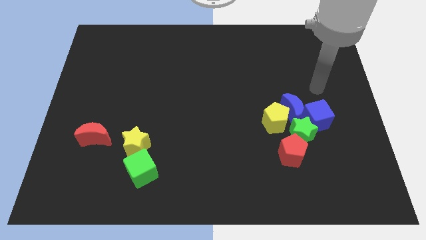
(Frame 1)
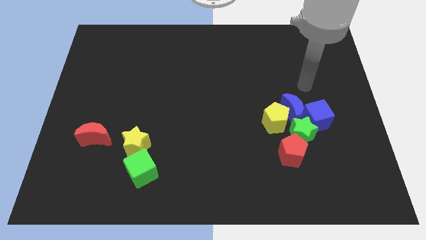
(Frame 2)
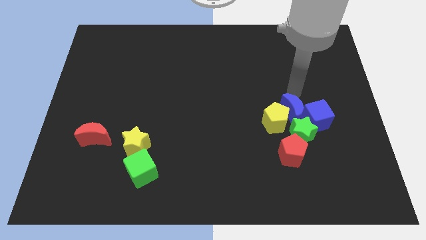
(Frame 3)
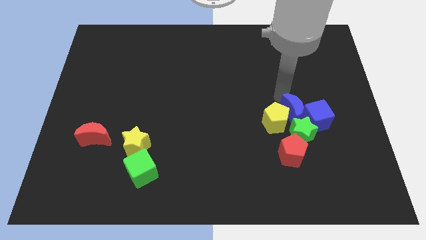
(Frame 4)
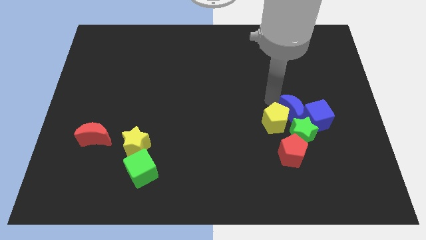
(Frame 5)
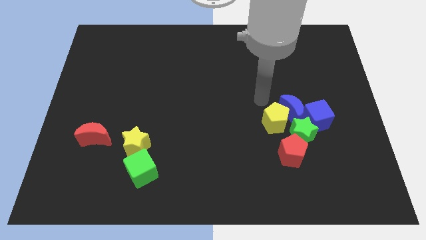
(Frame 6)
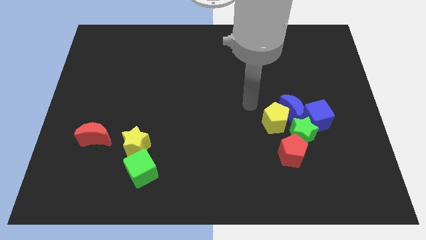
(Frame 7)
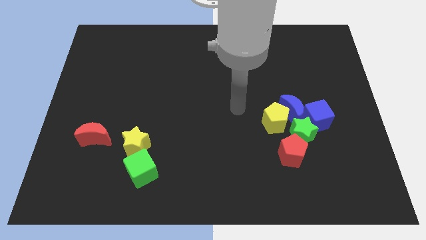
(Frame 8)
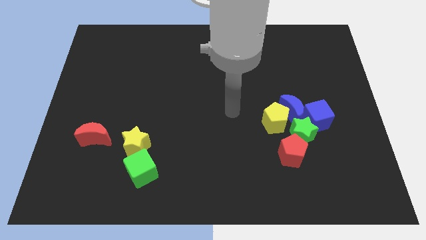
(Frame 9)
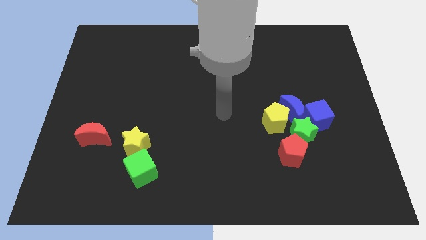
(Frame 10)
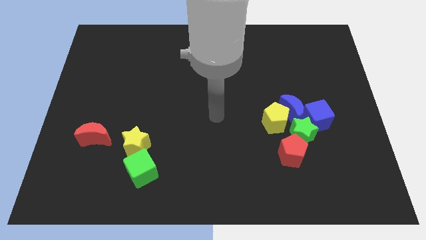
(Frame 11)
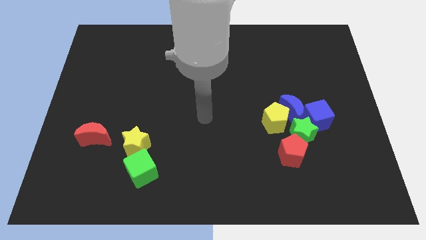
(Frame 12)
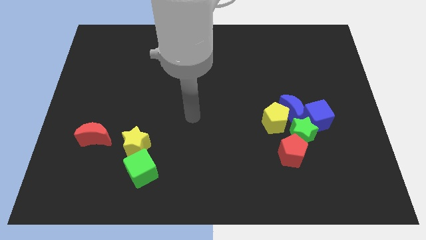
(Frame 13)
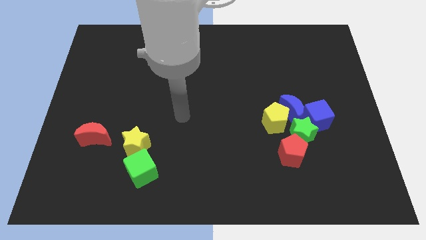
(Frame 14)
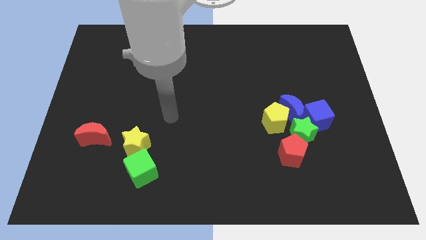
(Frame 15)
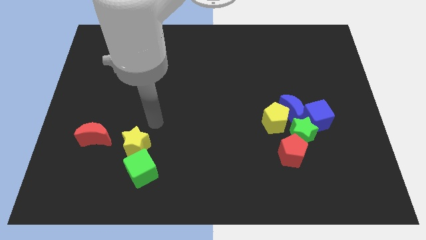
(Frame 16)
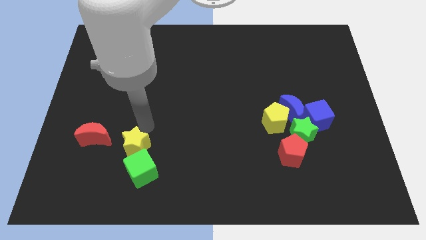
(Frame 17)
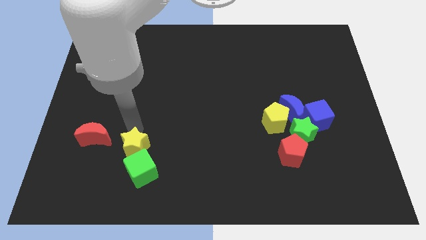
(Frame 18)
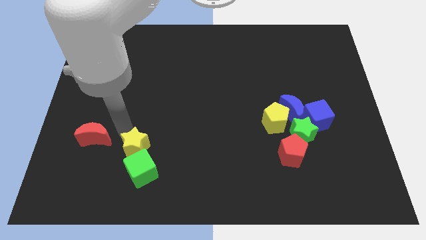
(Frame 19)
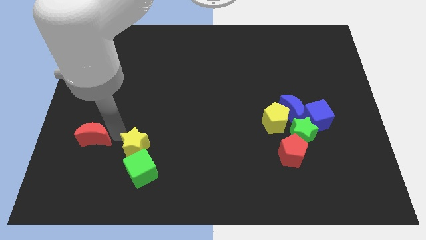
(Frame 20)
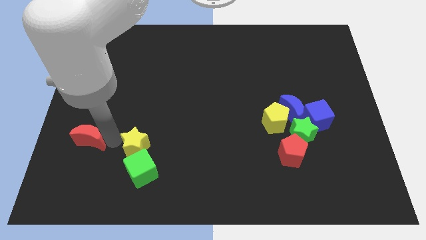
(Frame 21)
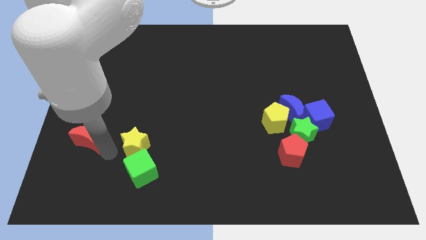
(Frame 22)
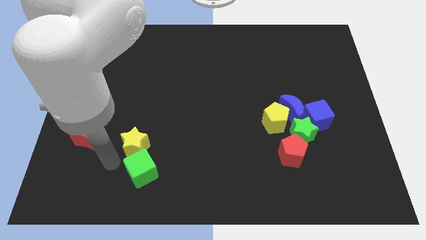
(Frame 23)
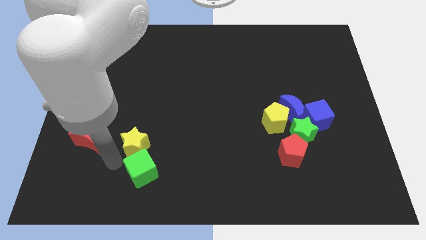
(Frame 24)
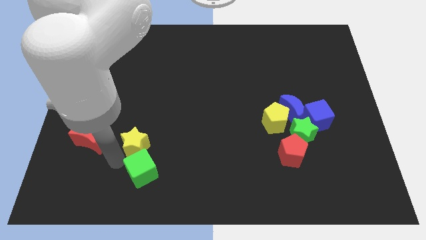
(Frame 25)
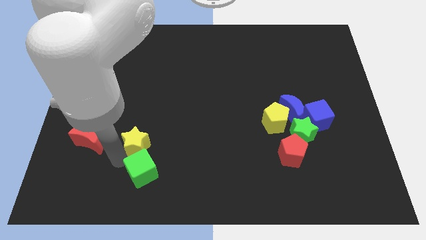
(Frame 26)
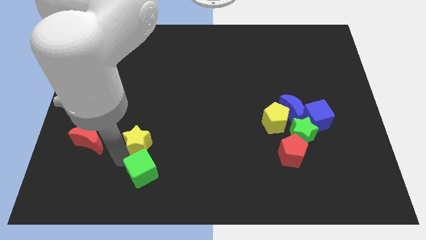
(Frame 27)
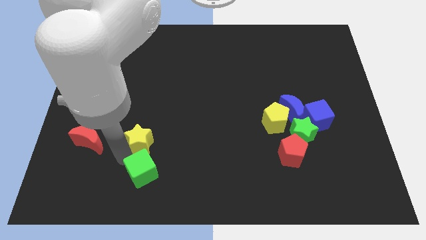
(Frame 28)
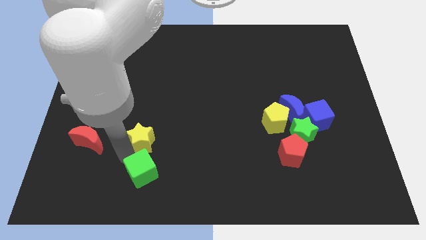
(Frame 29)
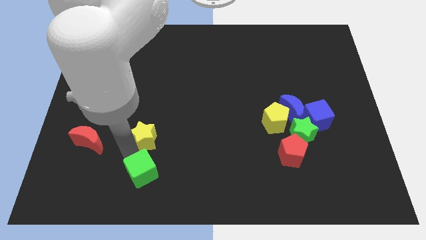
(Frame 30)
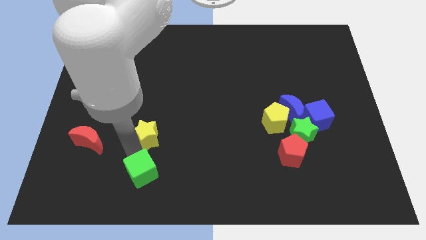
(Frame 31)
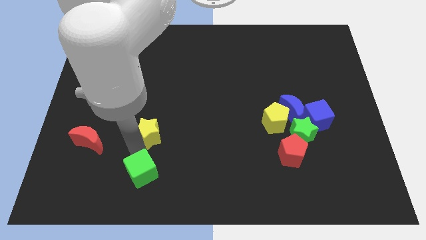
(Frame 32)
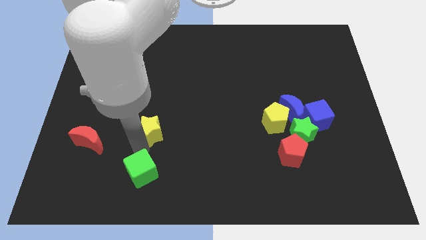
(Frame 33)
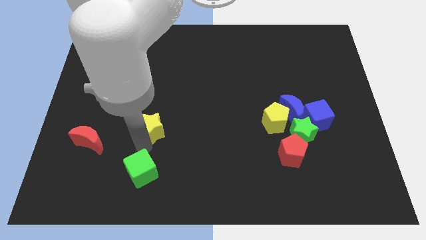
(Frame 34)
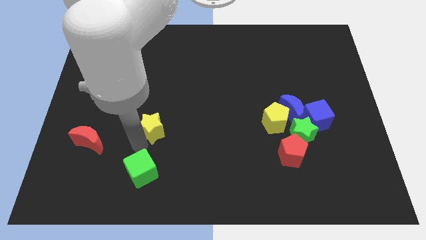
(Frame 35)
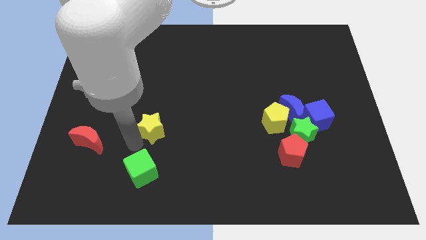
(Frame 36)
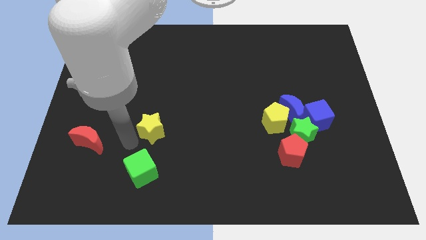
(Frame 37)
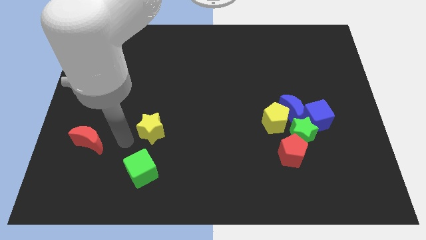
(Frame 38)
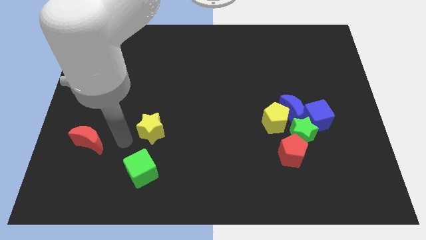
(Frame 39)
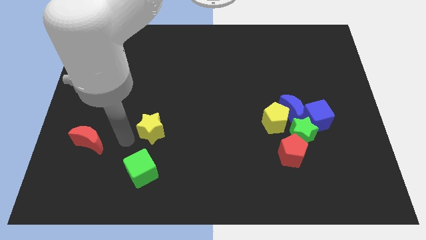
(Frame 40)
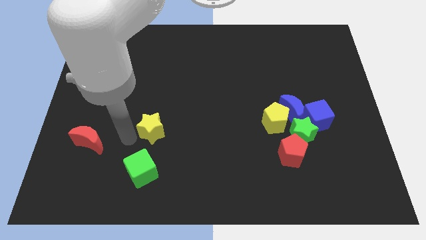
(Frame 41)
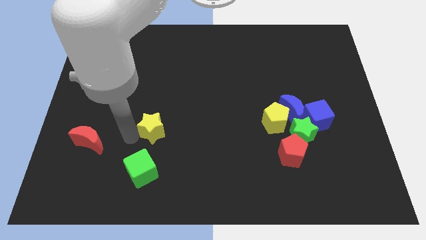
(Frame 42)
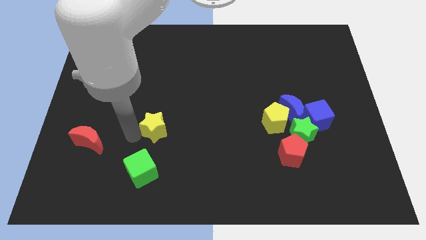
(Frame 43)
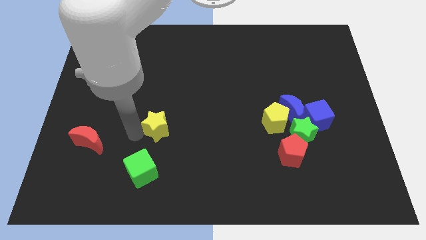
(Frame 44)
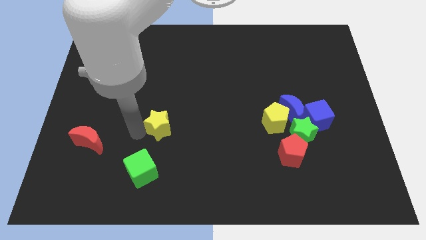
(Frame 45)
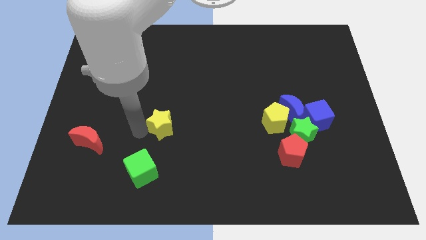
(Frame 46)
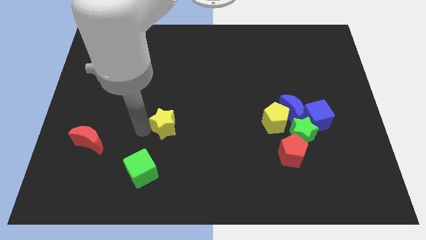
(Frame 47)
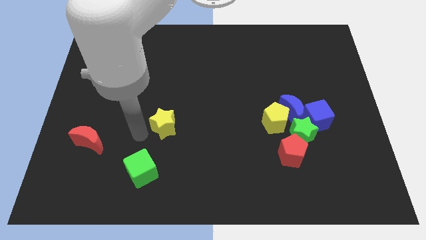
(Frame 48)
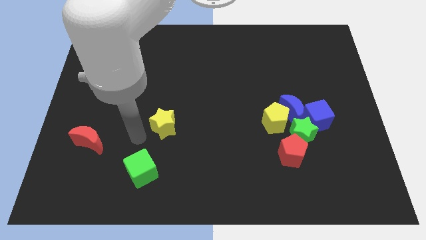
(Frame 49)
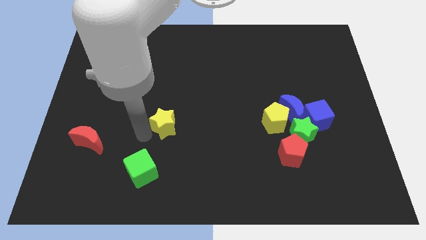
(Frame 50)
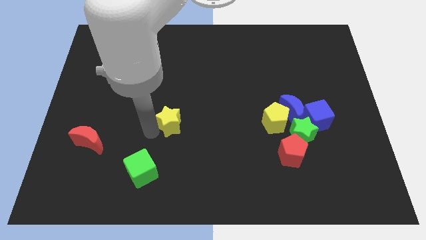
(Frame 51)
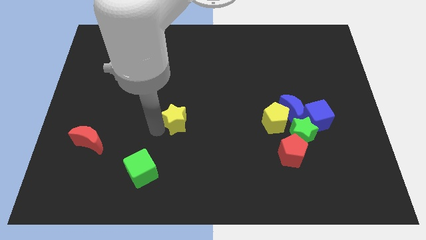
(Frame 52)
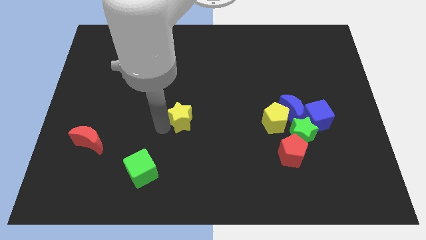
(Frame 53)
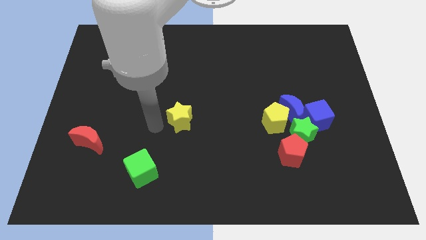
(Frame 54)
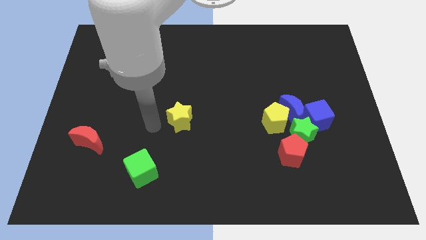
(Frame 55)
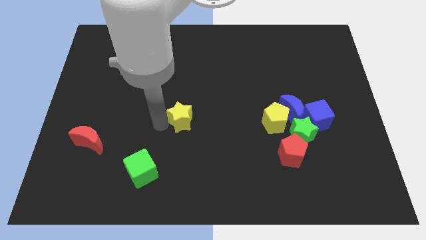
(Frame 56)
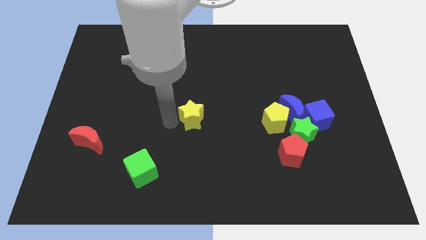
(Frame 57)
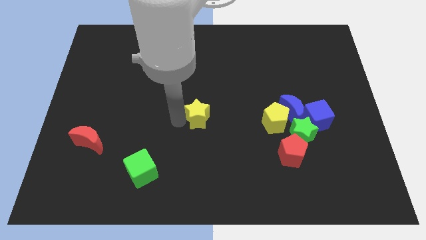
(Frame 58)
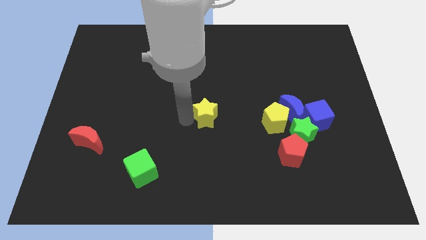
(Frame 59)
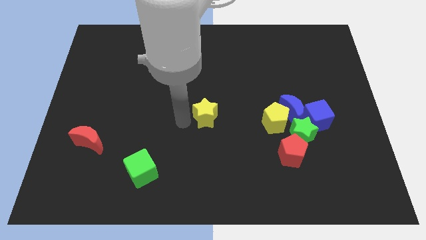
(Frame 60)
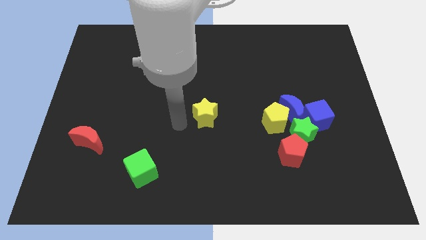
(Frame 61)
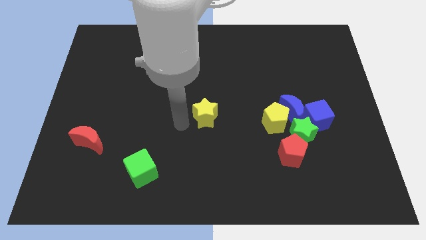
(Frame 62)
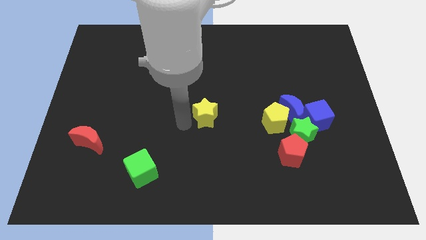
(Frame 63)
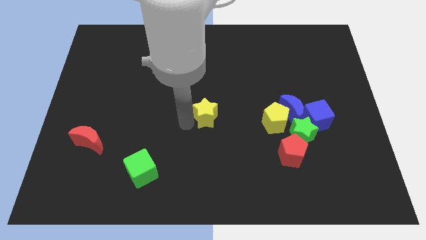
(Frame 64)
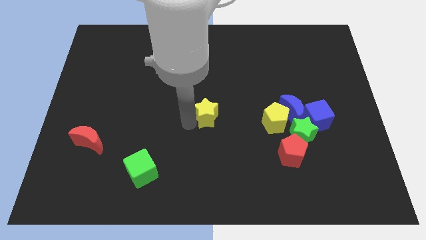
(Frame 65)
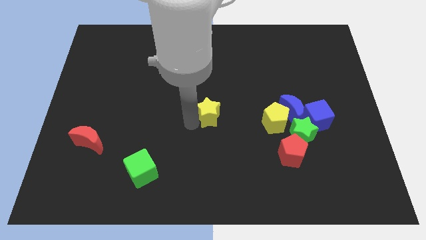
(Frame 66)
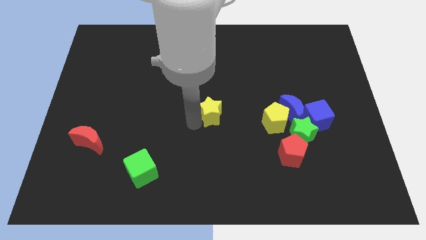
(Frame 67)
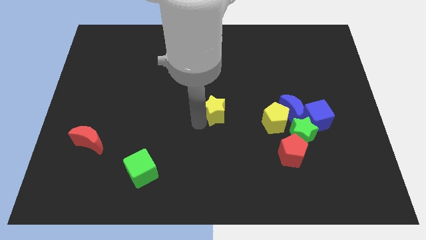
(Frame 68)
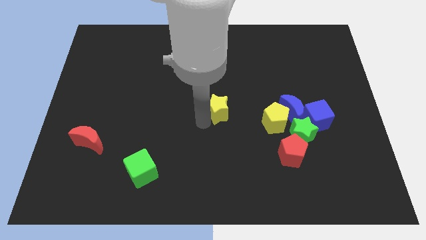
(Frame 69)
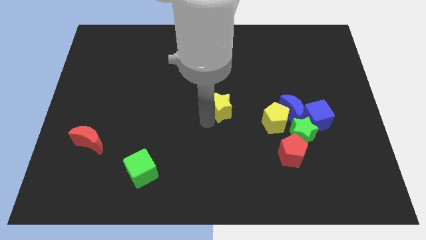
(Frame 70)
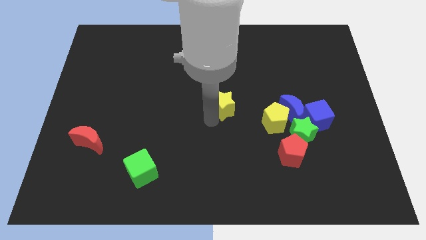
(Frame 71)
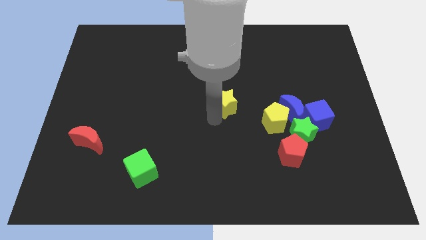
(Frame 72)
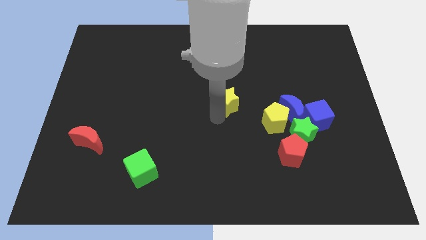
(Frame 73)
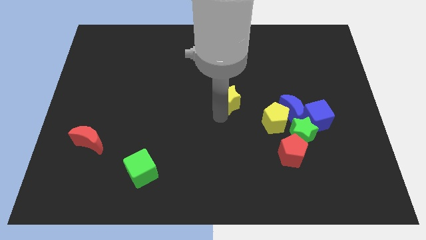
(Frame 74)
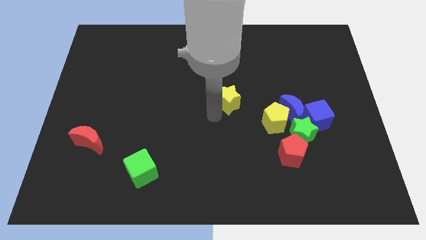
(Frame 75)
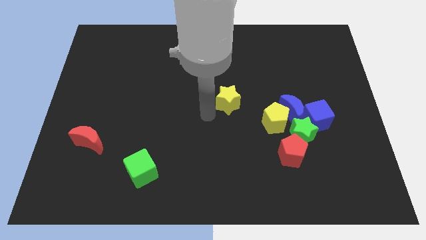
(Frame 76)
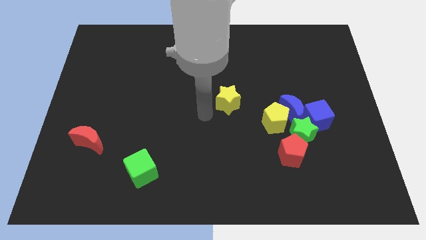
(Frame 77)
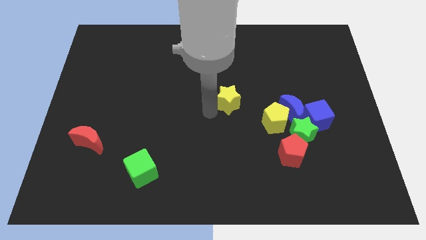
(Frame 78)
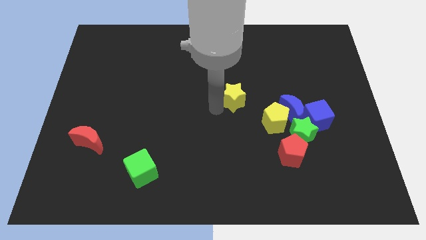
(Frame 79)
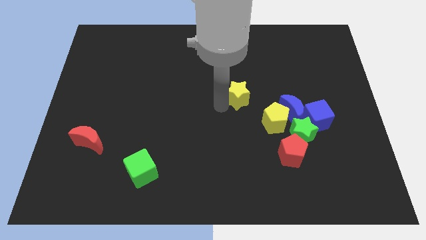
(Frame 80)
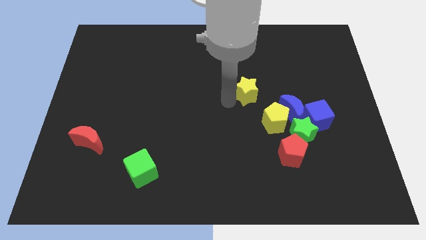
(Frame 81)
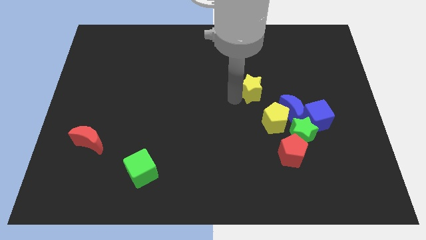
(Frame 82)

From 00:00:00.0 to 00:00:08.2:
move the yellow star above the yellow pentagon
